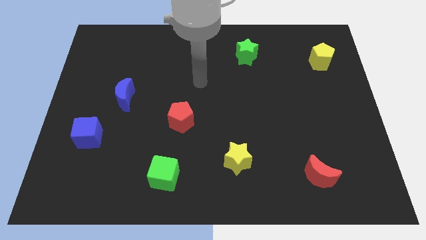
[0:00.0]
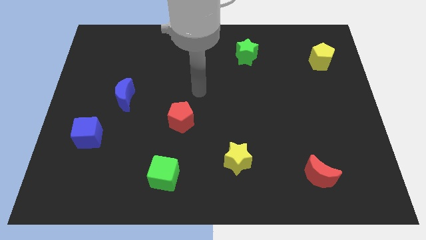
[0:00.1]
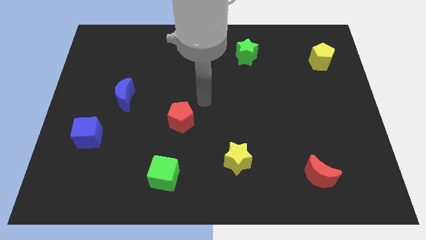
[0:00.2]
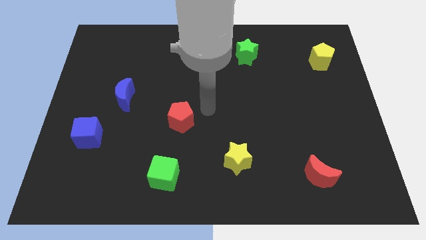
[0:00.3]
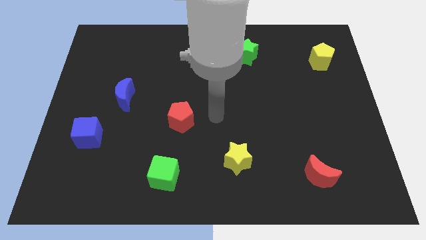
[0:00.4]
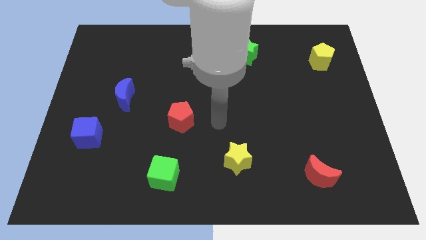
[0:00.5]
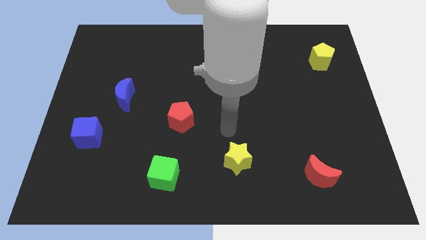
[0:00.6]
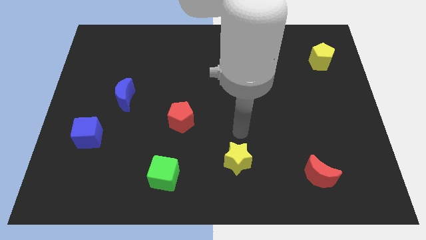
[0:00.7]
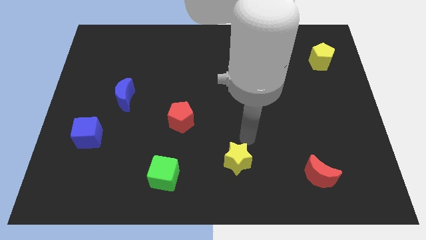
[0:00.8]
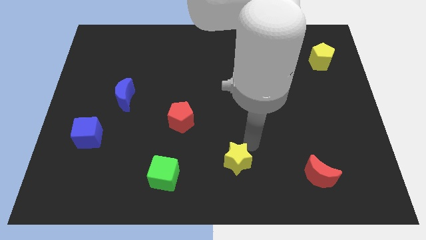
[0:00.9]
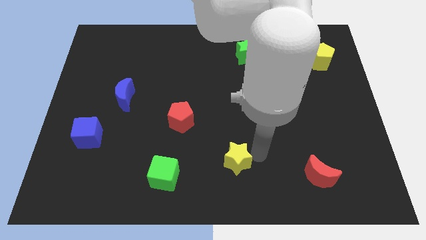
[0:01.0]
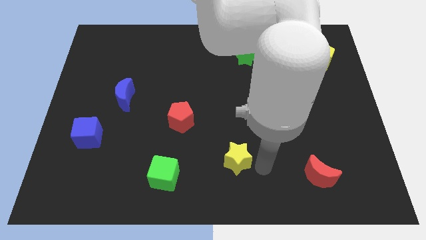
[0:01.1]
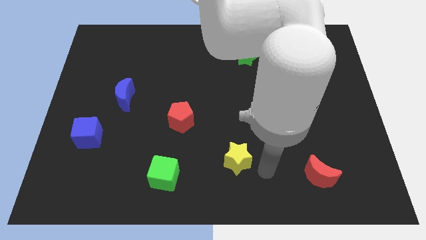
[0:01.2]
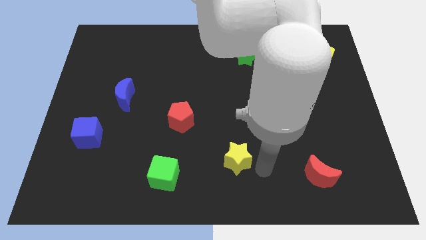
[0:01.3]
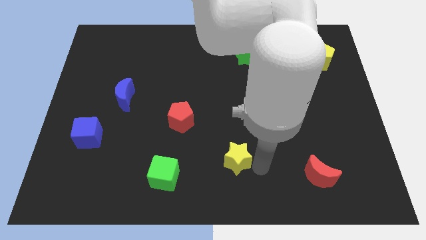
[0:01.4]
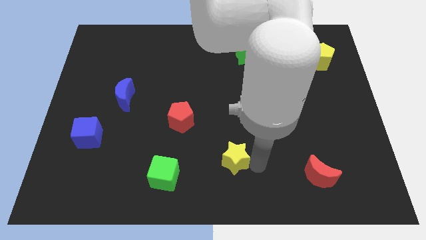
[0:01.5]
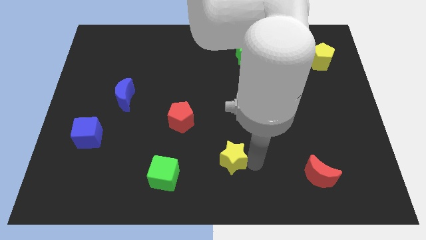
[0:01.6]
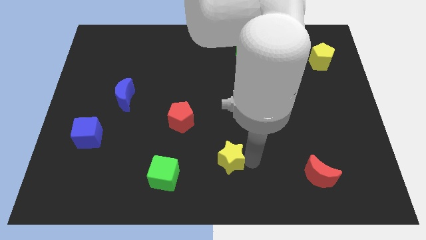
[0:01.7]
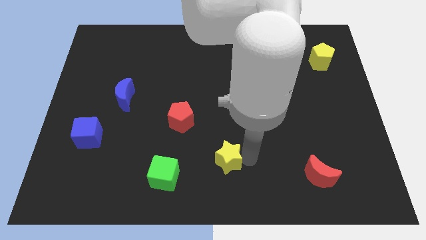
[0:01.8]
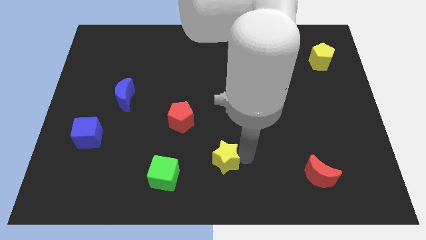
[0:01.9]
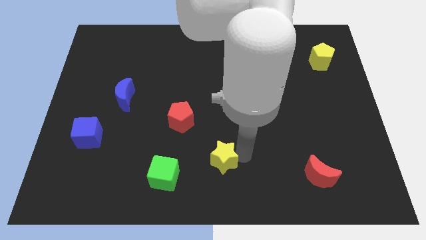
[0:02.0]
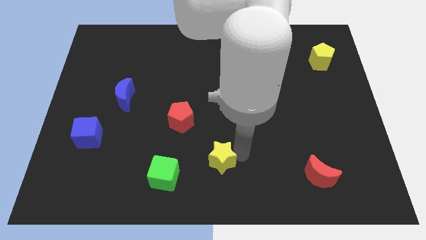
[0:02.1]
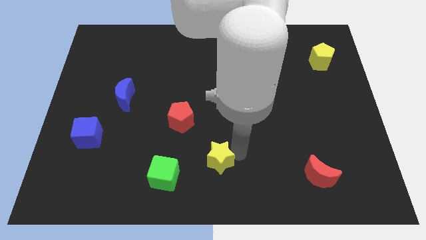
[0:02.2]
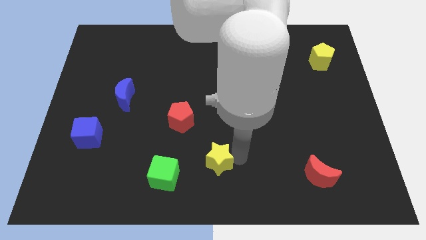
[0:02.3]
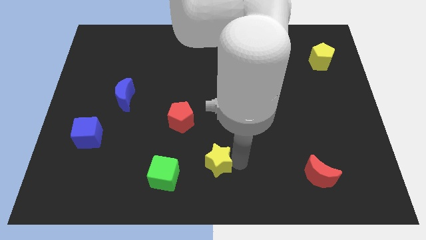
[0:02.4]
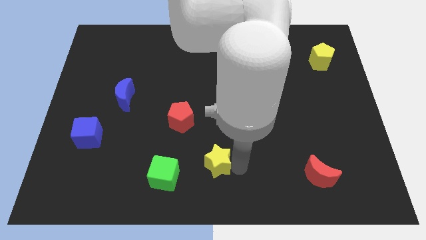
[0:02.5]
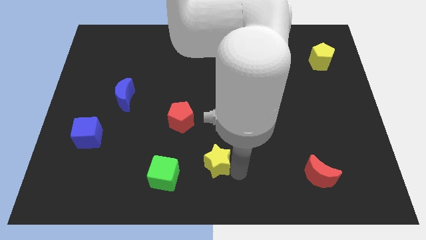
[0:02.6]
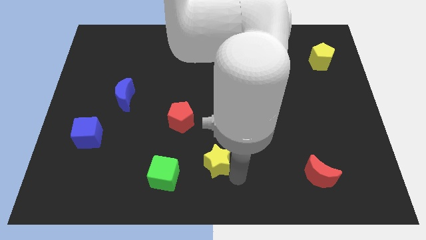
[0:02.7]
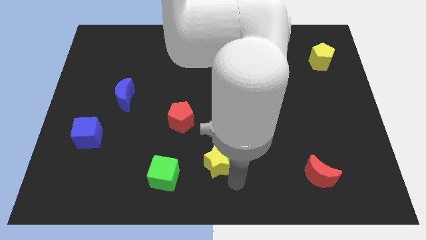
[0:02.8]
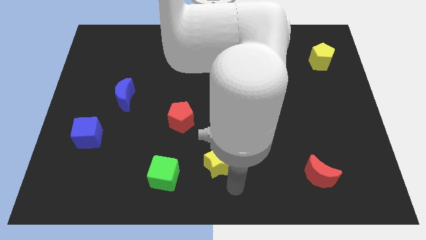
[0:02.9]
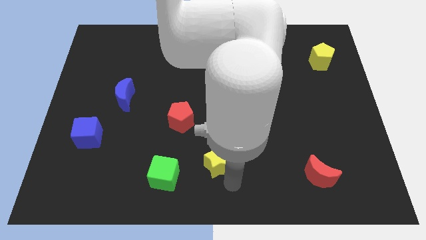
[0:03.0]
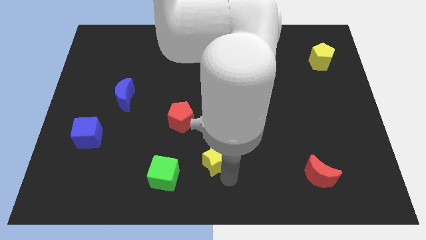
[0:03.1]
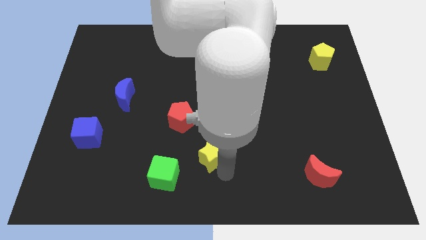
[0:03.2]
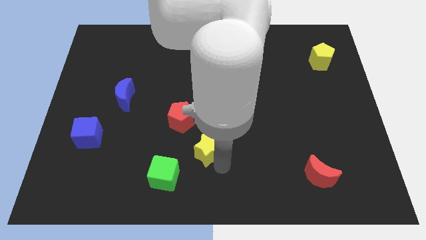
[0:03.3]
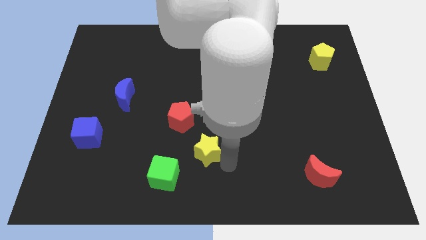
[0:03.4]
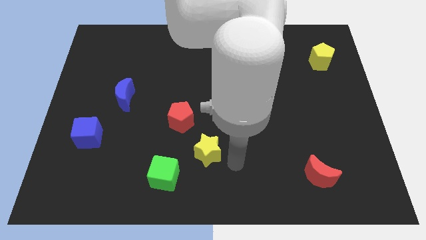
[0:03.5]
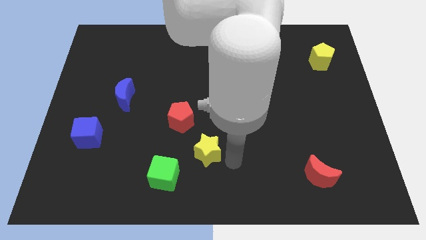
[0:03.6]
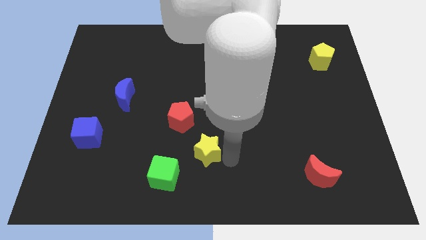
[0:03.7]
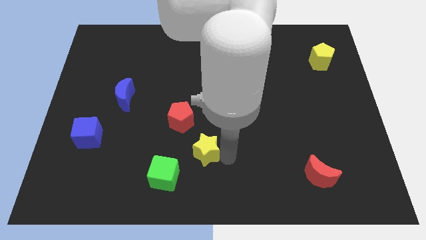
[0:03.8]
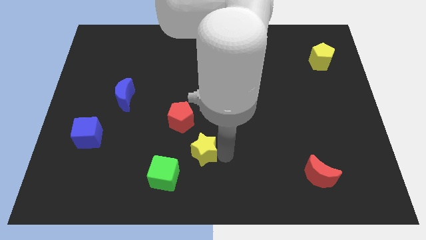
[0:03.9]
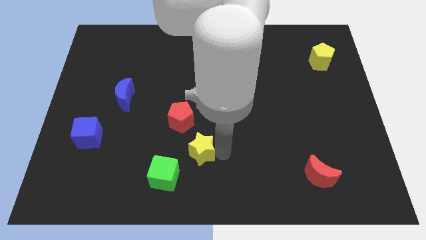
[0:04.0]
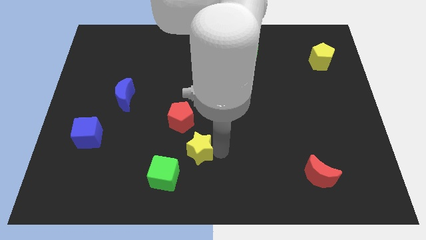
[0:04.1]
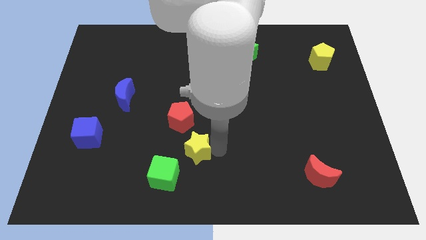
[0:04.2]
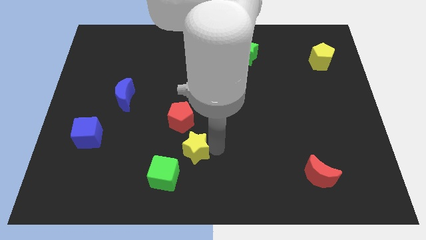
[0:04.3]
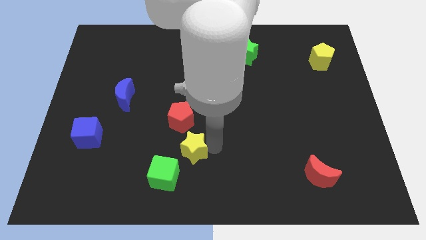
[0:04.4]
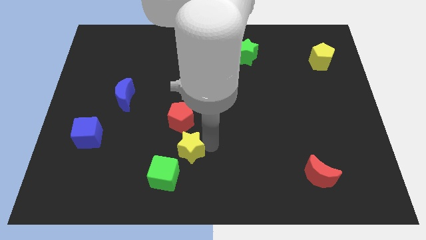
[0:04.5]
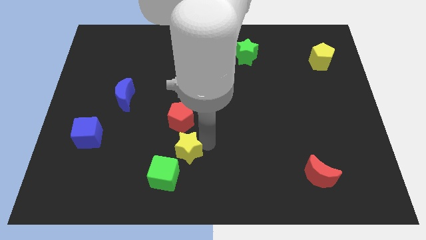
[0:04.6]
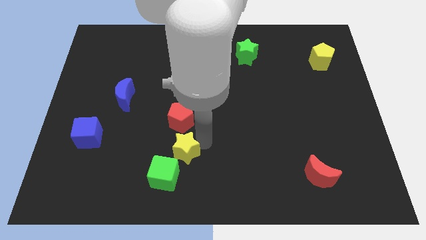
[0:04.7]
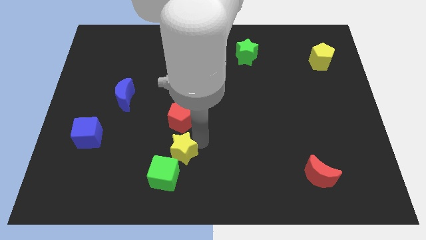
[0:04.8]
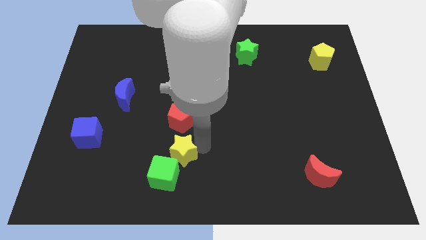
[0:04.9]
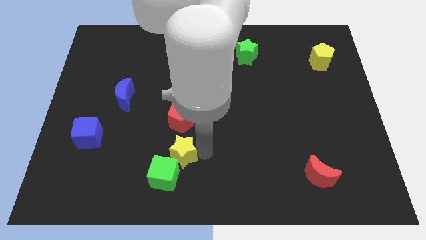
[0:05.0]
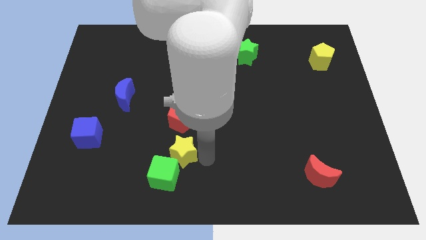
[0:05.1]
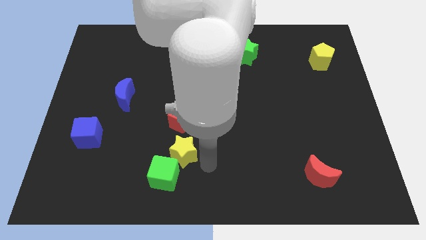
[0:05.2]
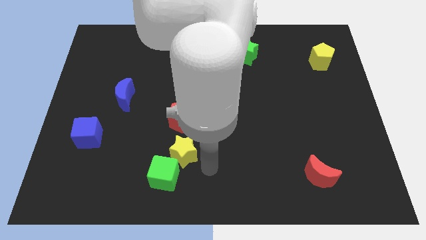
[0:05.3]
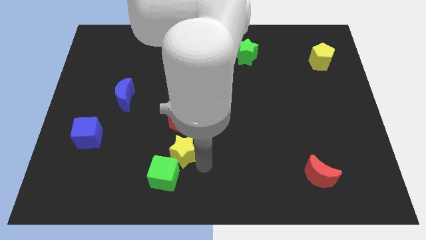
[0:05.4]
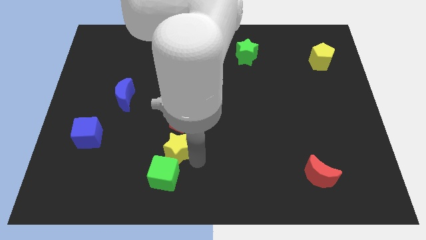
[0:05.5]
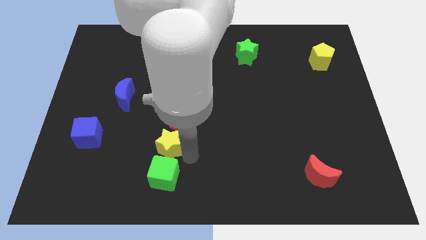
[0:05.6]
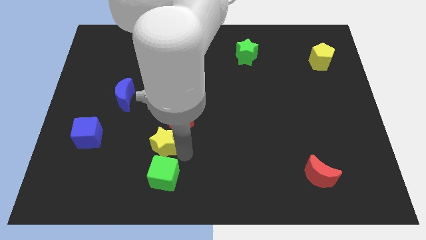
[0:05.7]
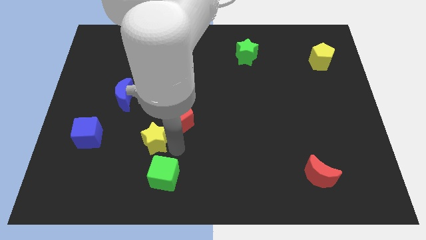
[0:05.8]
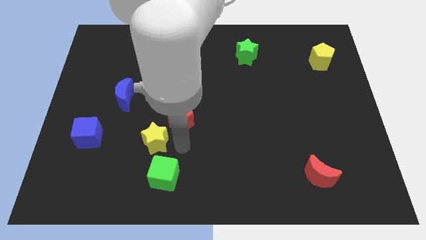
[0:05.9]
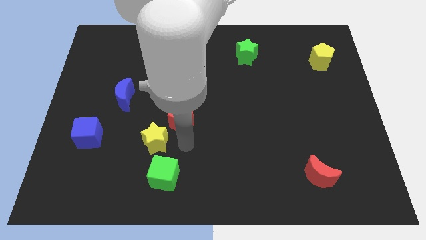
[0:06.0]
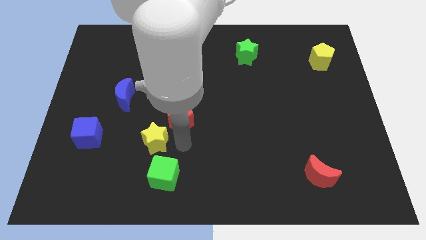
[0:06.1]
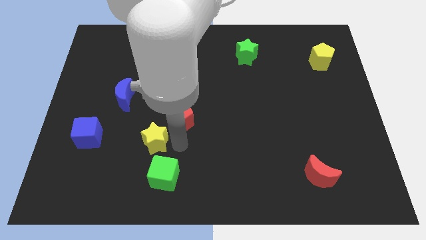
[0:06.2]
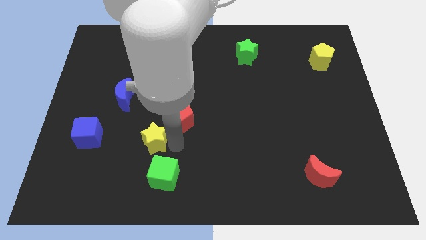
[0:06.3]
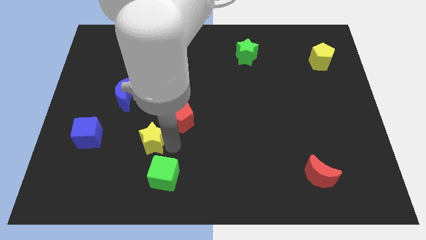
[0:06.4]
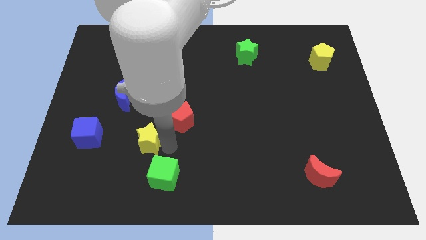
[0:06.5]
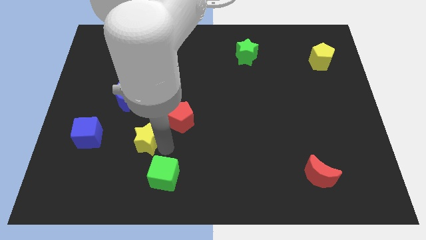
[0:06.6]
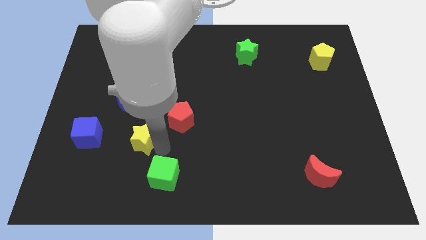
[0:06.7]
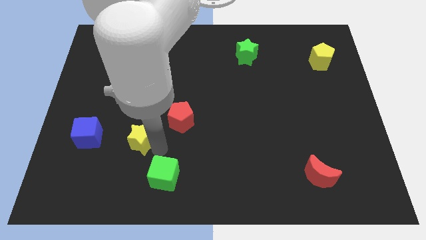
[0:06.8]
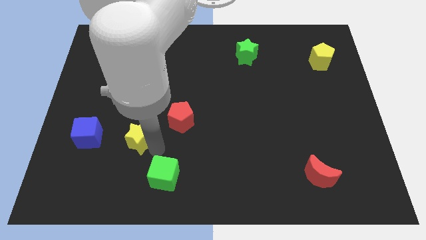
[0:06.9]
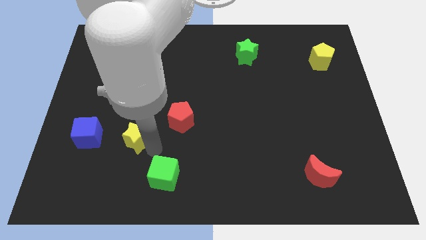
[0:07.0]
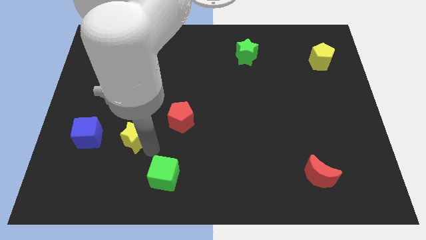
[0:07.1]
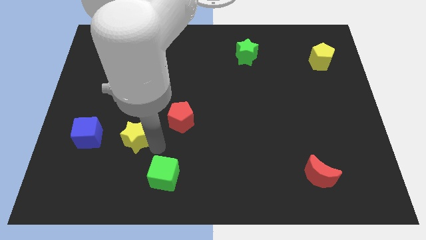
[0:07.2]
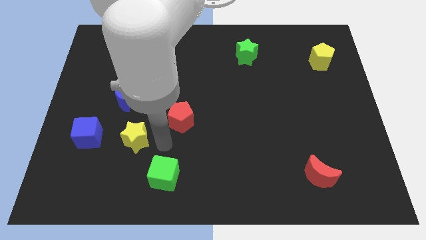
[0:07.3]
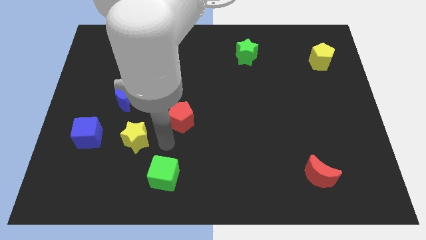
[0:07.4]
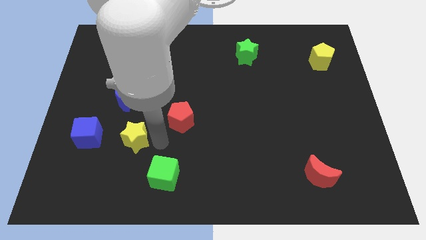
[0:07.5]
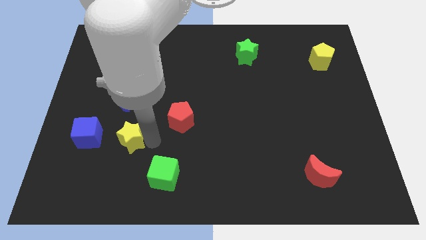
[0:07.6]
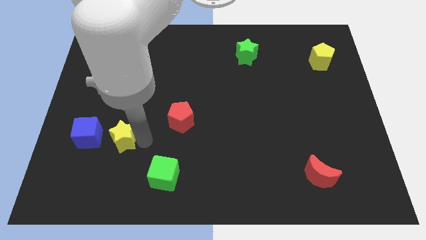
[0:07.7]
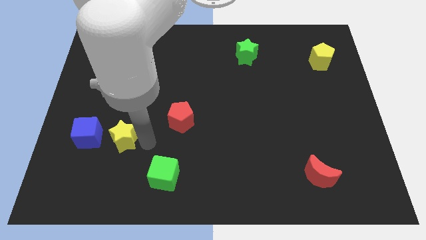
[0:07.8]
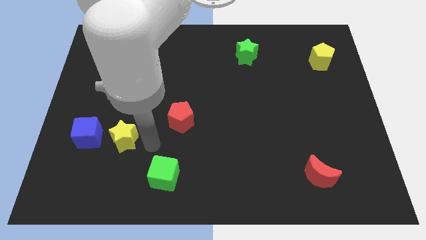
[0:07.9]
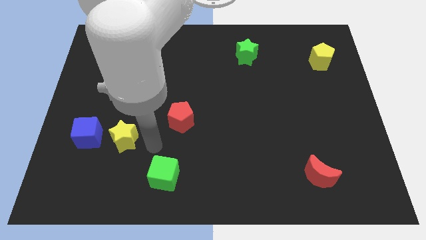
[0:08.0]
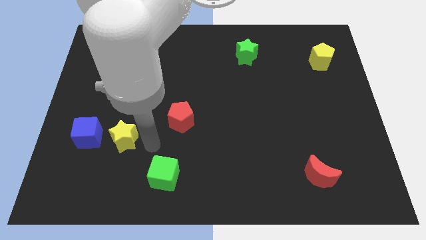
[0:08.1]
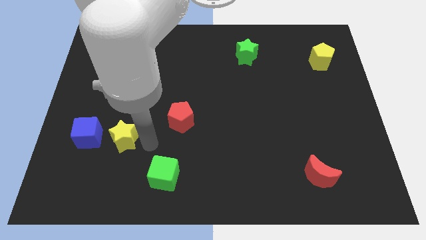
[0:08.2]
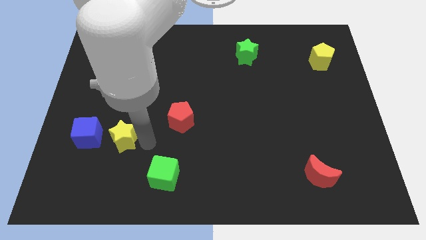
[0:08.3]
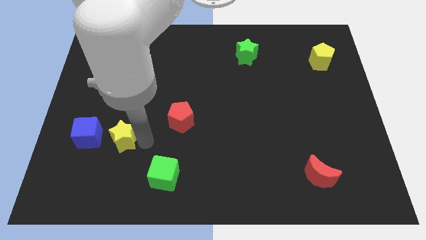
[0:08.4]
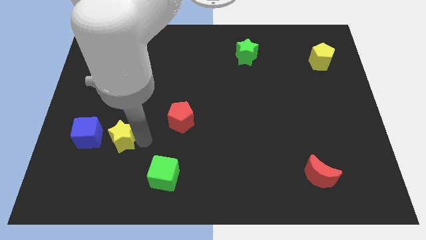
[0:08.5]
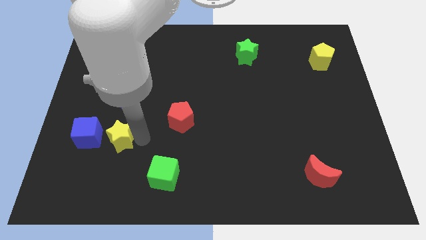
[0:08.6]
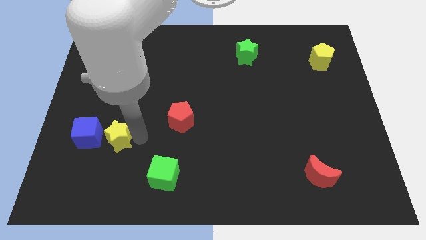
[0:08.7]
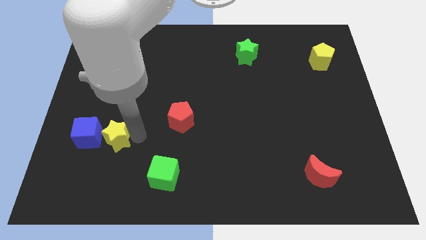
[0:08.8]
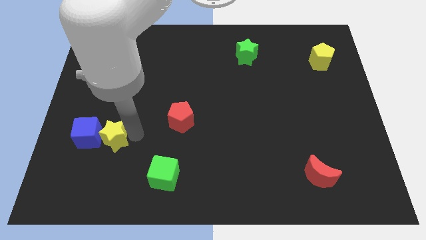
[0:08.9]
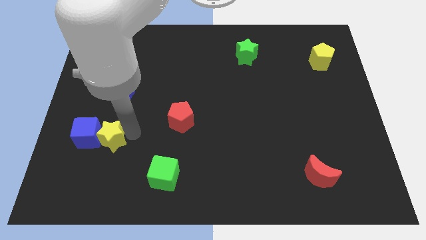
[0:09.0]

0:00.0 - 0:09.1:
put the yellow star next to the blue cube
